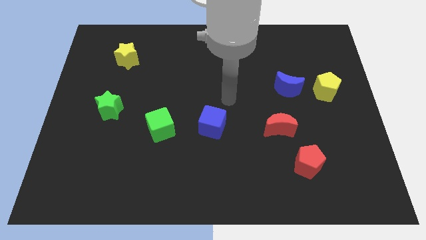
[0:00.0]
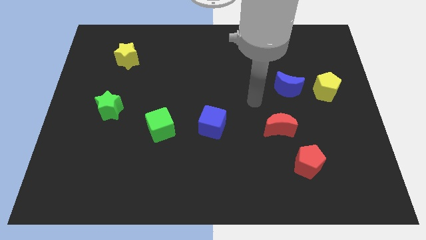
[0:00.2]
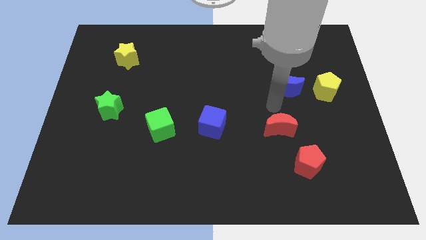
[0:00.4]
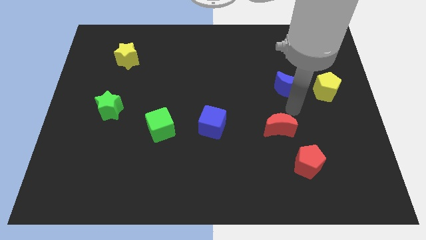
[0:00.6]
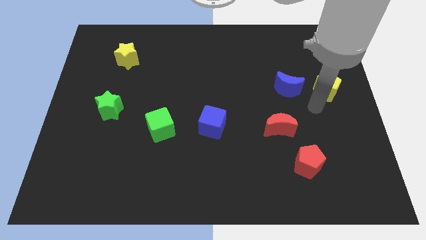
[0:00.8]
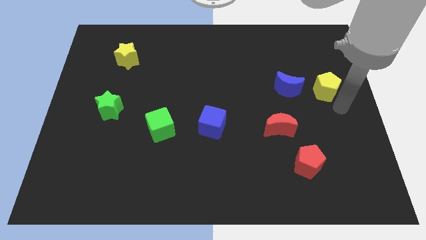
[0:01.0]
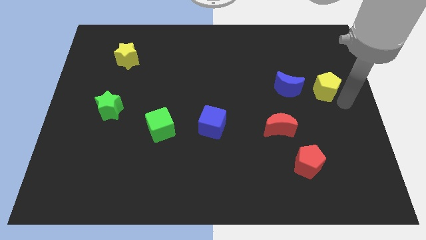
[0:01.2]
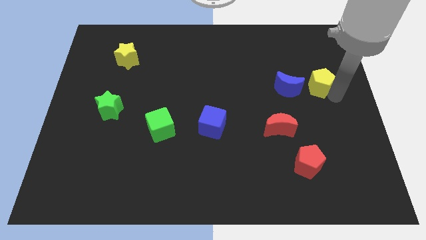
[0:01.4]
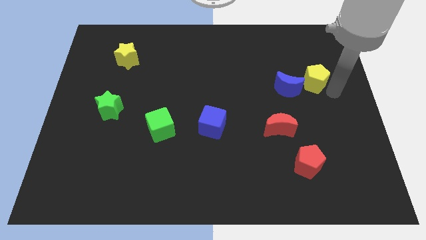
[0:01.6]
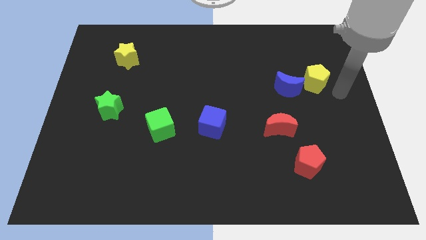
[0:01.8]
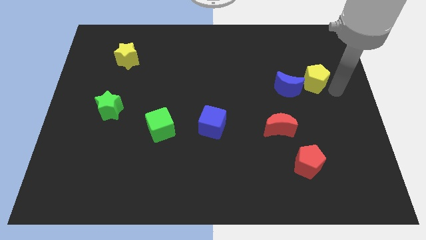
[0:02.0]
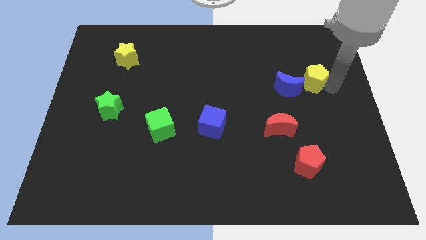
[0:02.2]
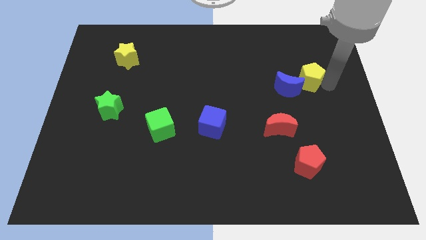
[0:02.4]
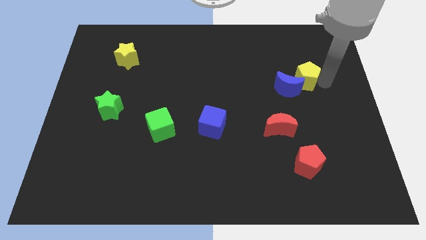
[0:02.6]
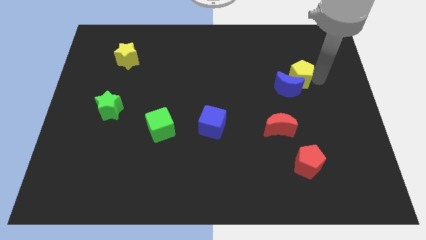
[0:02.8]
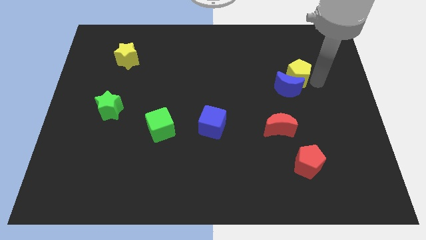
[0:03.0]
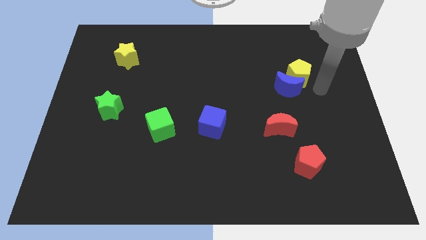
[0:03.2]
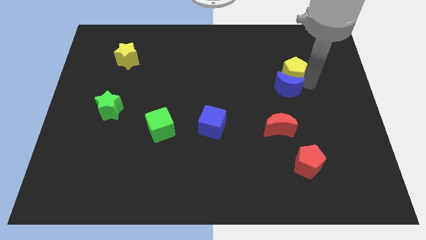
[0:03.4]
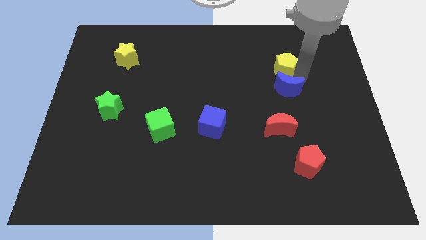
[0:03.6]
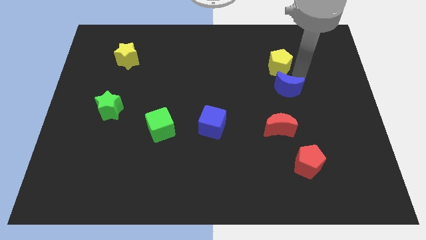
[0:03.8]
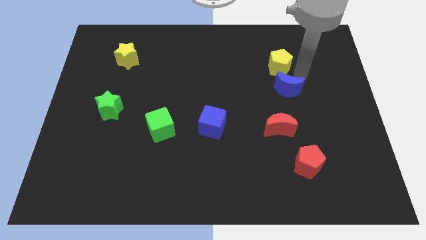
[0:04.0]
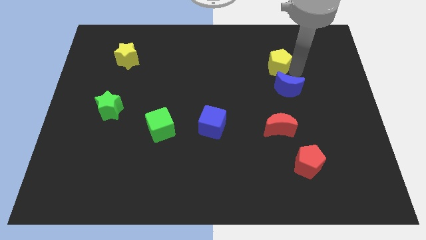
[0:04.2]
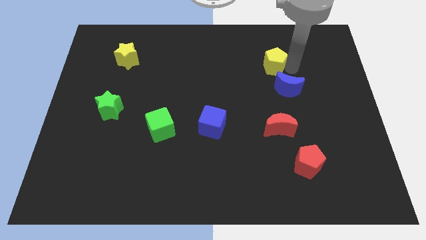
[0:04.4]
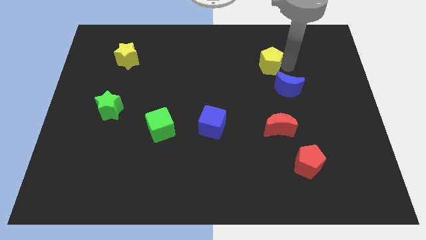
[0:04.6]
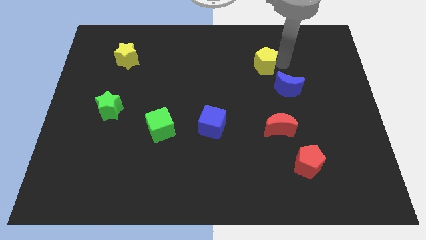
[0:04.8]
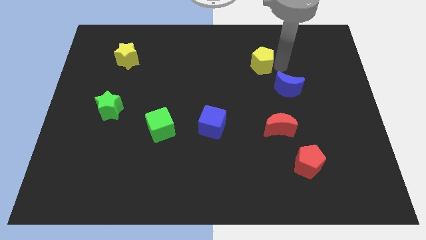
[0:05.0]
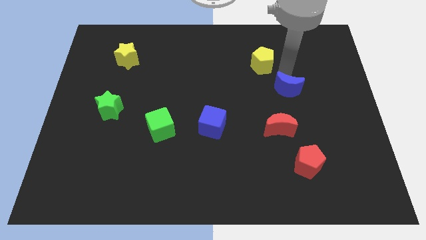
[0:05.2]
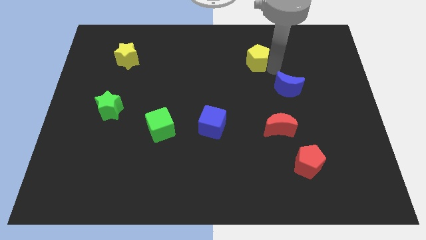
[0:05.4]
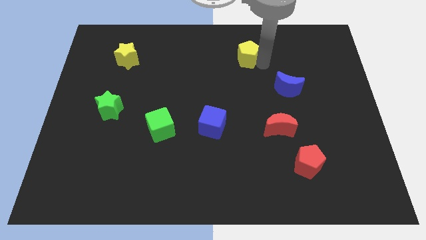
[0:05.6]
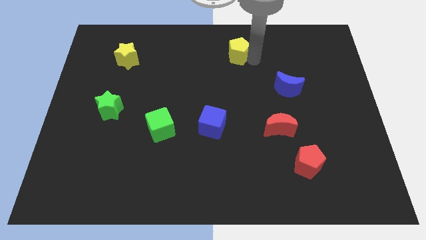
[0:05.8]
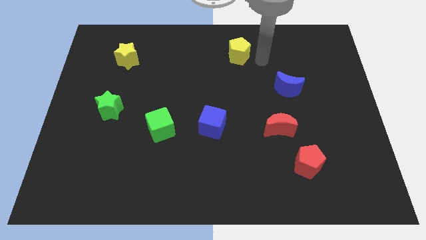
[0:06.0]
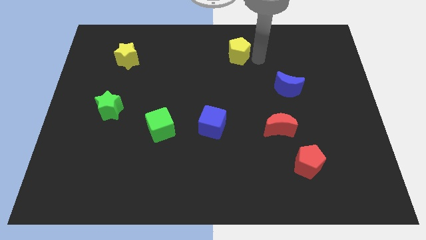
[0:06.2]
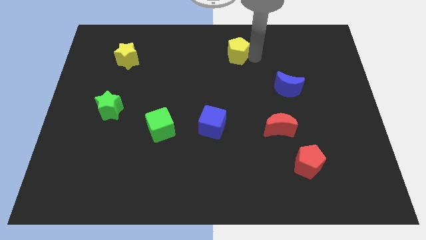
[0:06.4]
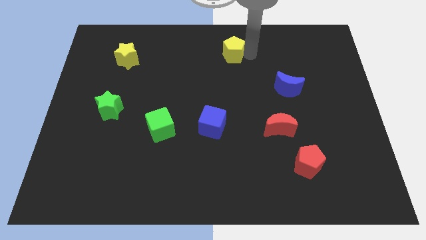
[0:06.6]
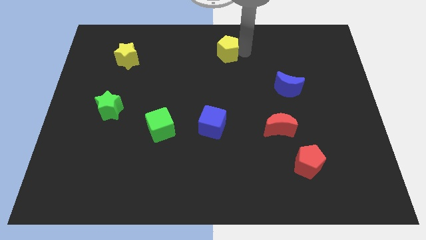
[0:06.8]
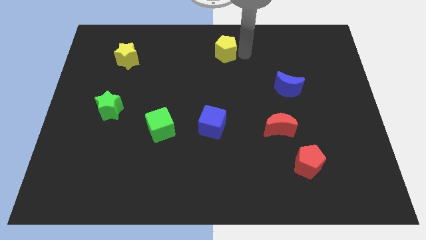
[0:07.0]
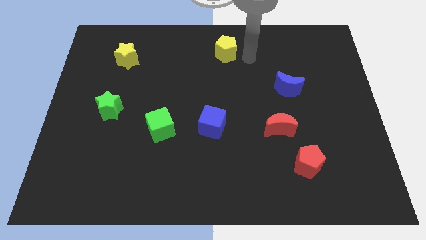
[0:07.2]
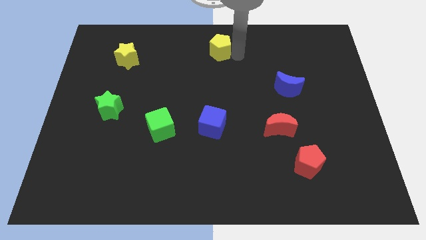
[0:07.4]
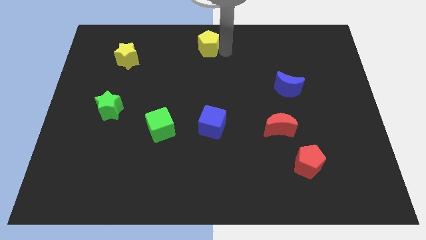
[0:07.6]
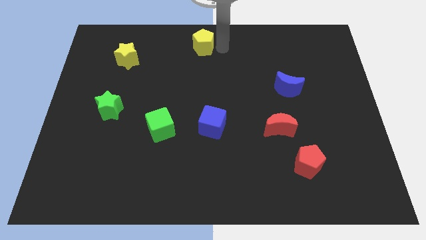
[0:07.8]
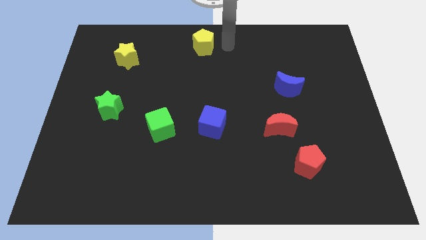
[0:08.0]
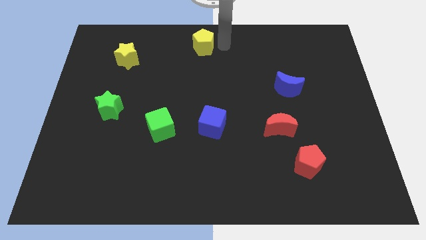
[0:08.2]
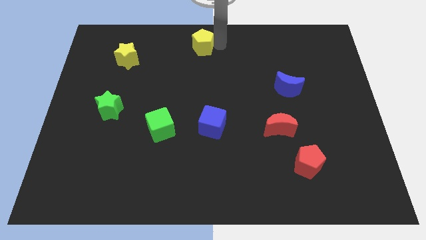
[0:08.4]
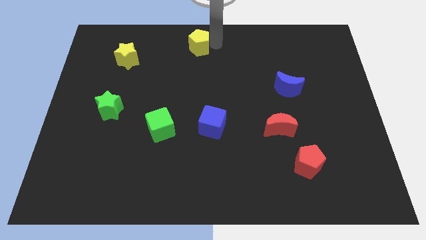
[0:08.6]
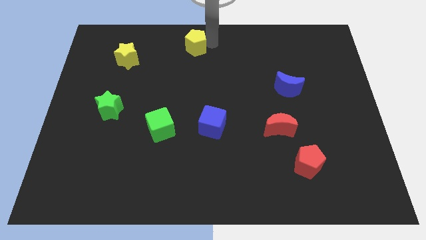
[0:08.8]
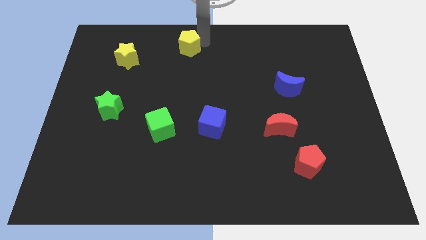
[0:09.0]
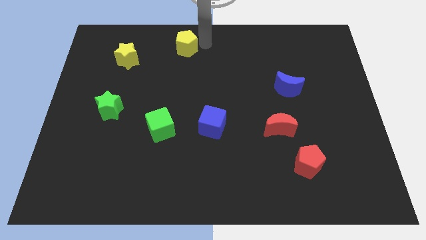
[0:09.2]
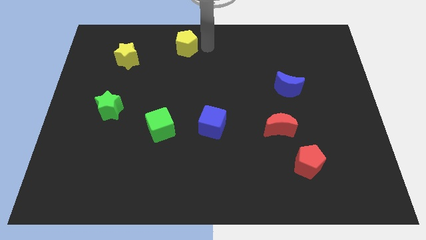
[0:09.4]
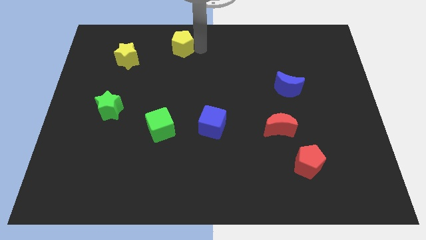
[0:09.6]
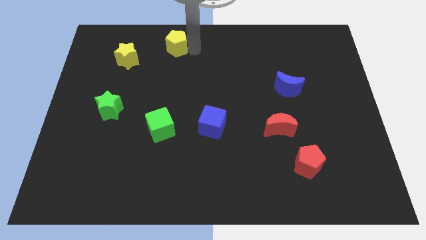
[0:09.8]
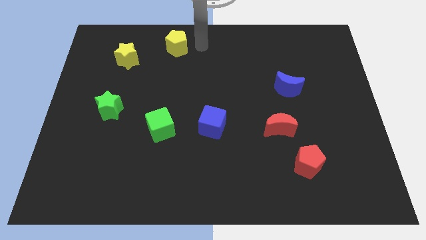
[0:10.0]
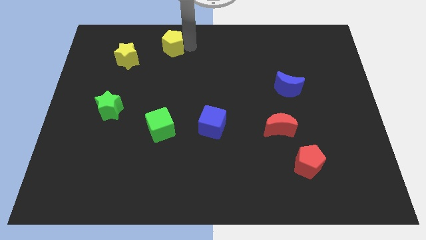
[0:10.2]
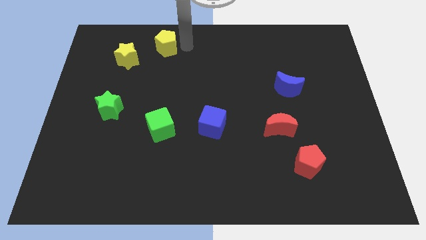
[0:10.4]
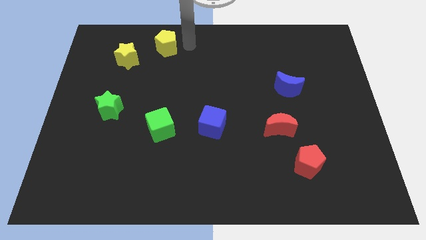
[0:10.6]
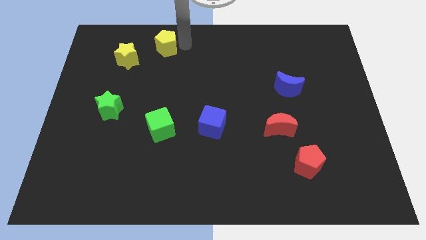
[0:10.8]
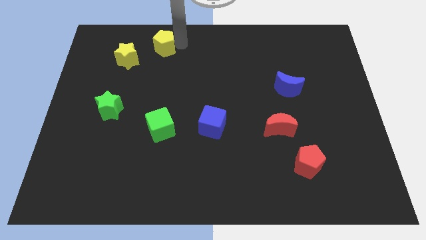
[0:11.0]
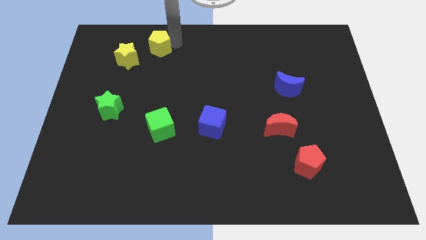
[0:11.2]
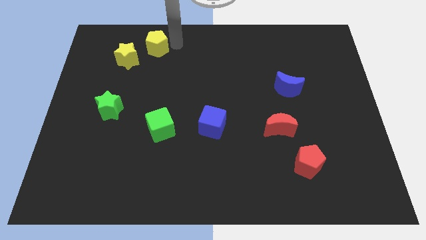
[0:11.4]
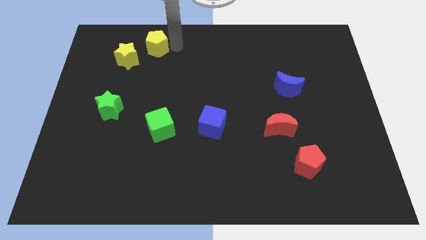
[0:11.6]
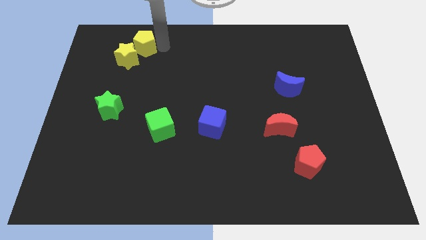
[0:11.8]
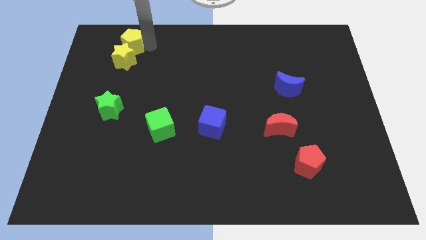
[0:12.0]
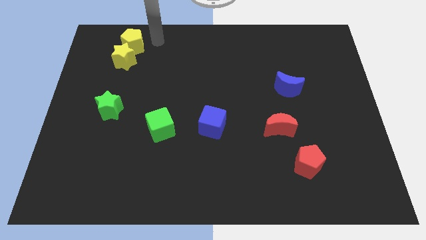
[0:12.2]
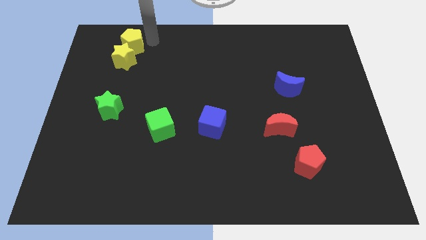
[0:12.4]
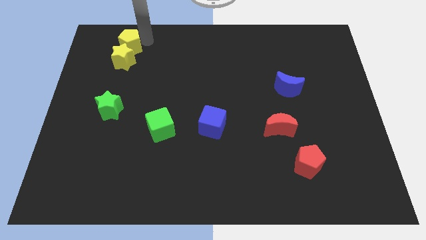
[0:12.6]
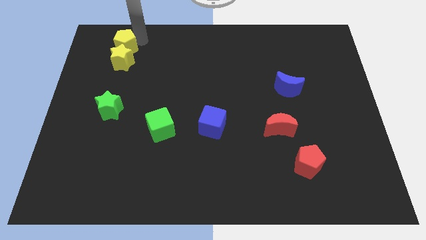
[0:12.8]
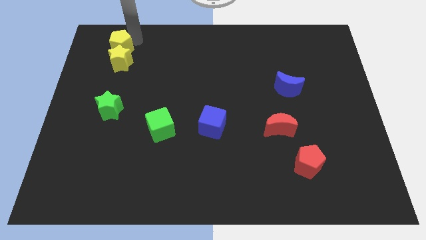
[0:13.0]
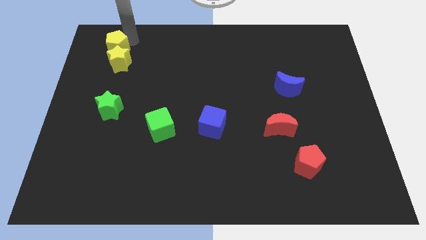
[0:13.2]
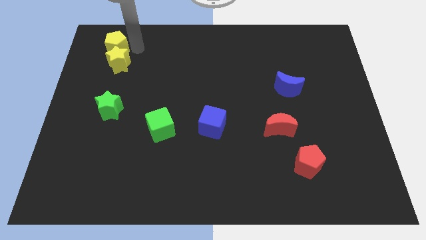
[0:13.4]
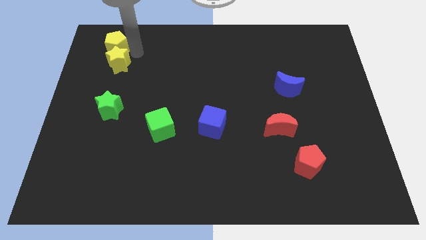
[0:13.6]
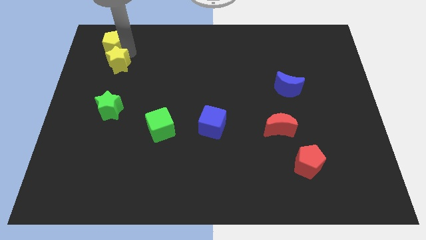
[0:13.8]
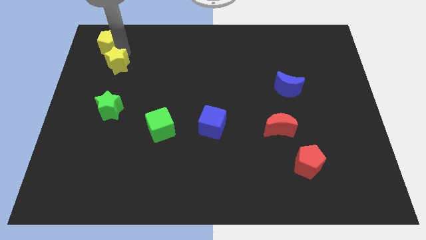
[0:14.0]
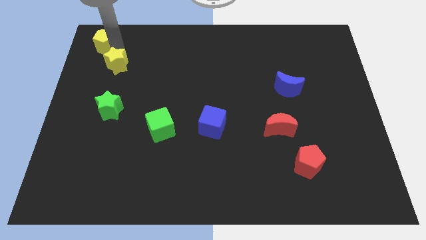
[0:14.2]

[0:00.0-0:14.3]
put the yellow pentagon to the upper left corner
